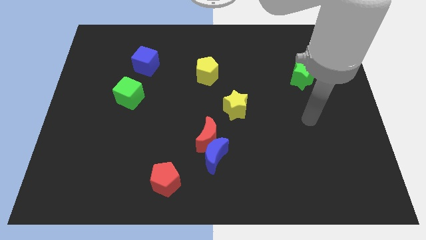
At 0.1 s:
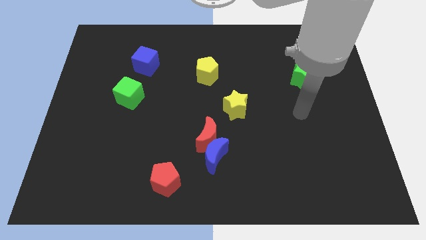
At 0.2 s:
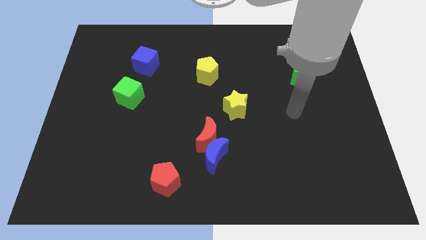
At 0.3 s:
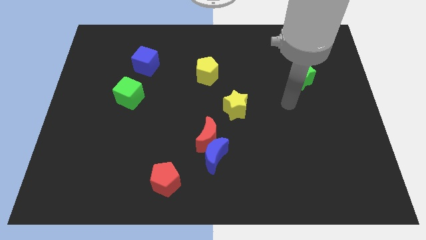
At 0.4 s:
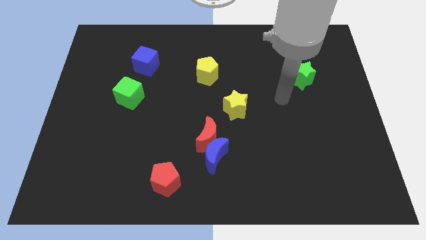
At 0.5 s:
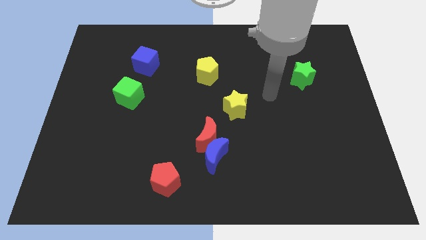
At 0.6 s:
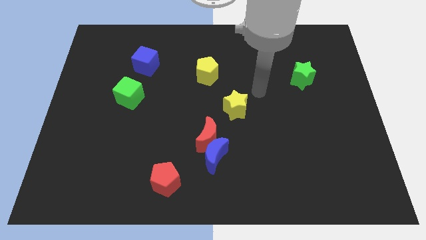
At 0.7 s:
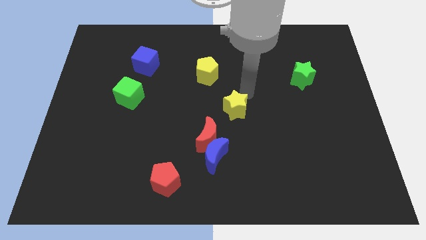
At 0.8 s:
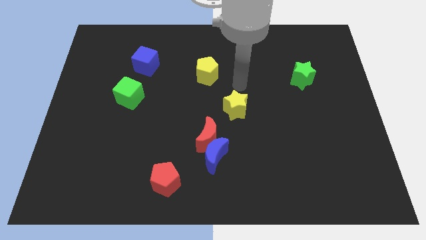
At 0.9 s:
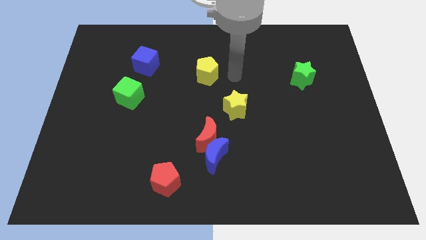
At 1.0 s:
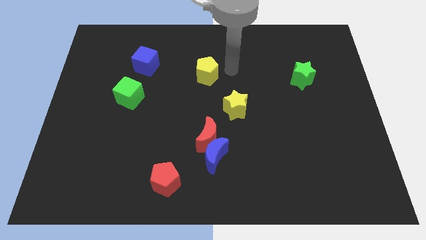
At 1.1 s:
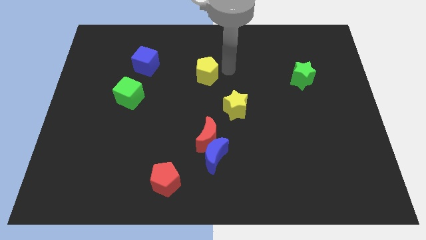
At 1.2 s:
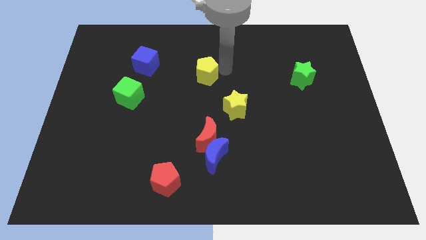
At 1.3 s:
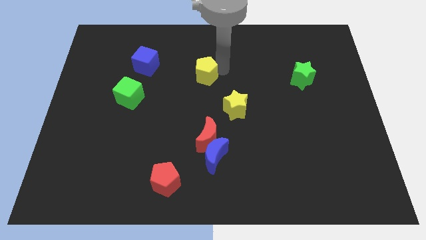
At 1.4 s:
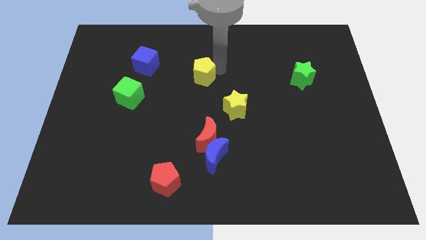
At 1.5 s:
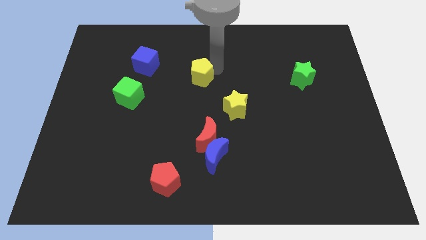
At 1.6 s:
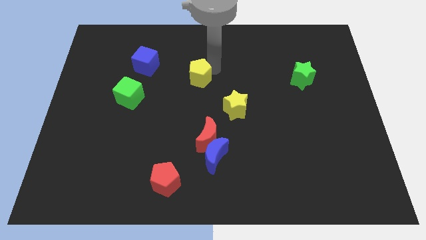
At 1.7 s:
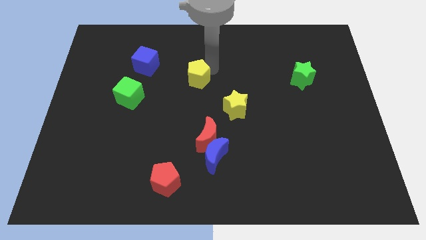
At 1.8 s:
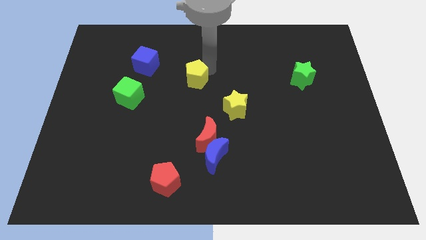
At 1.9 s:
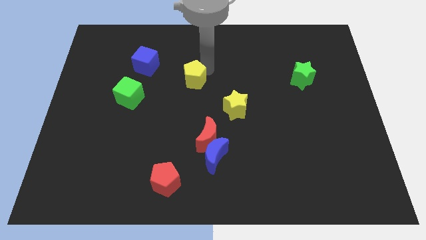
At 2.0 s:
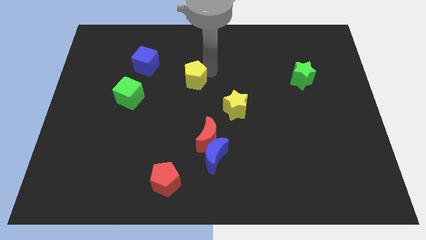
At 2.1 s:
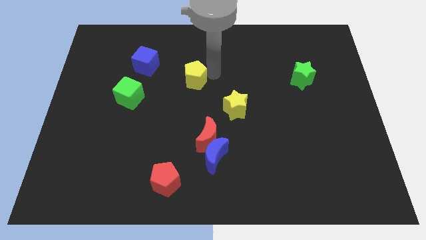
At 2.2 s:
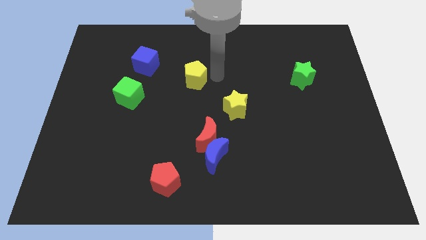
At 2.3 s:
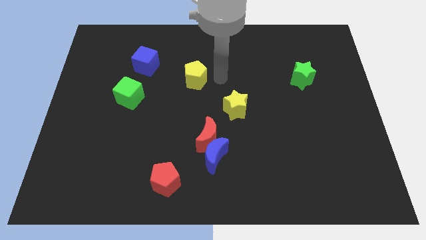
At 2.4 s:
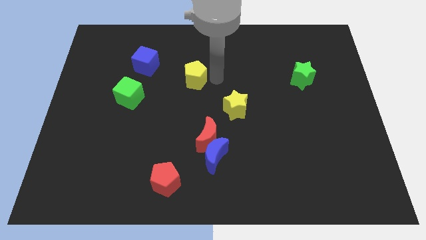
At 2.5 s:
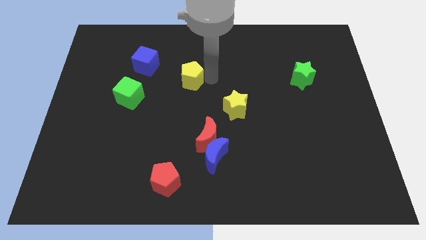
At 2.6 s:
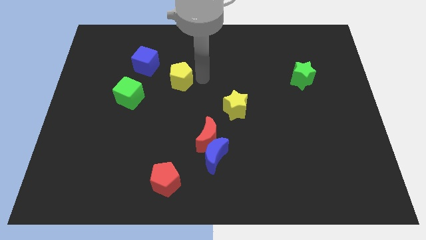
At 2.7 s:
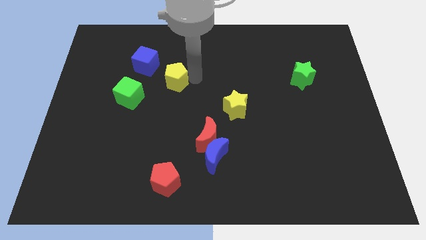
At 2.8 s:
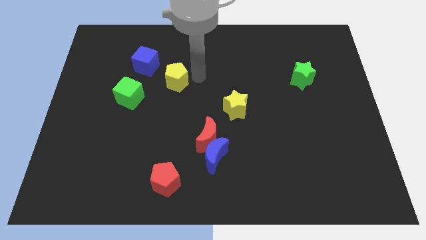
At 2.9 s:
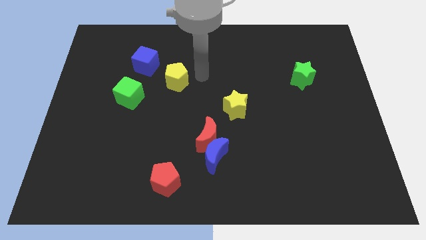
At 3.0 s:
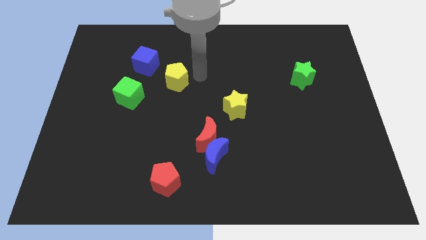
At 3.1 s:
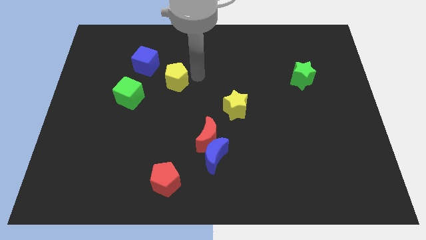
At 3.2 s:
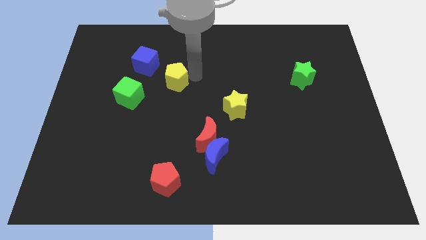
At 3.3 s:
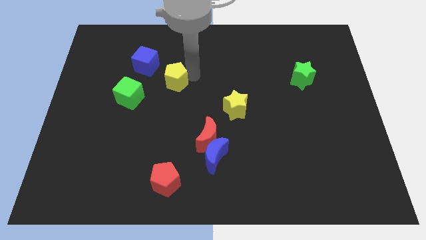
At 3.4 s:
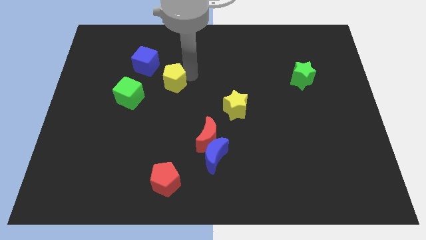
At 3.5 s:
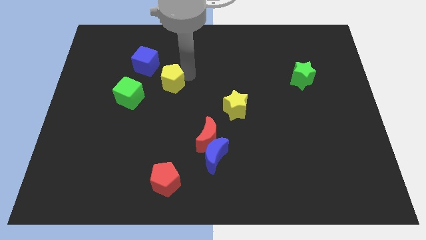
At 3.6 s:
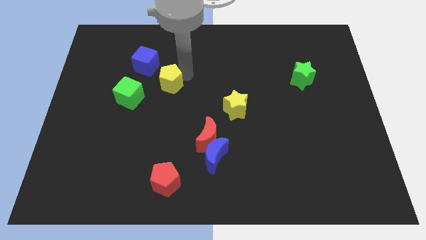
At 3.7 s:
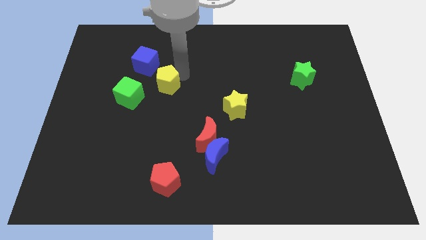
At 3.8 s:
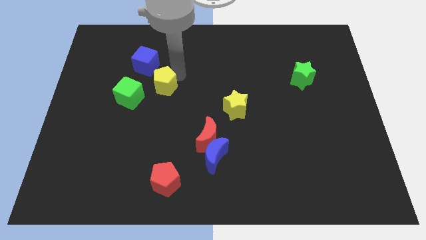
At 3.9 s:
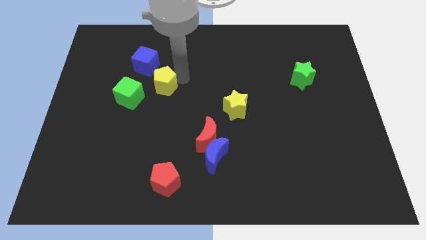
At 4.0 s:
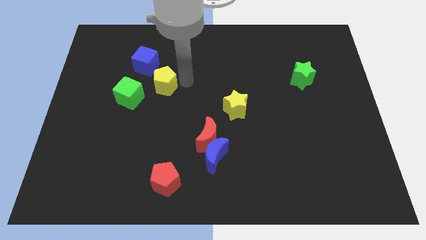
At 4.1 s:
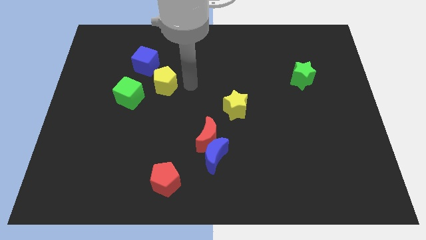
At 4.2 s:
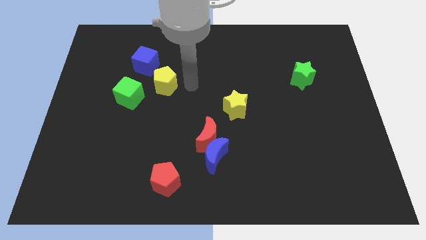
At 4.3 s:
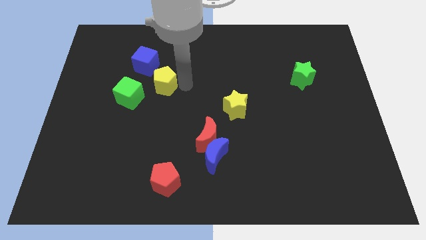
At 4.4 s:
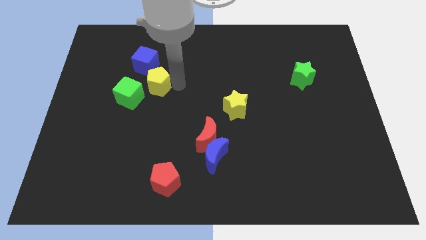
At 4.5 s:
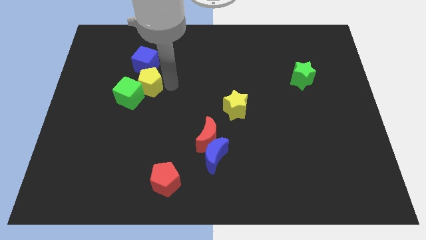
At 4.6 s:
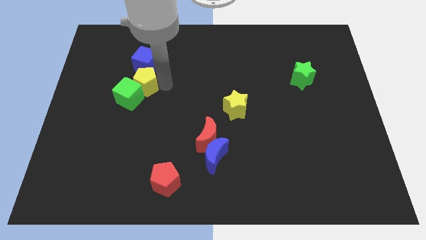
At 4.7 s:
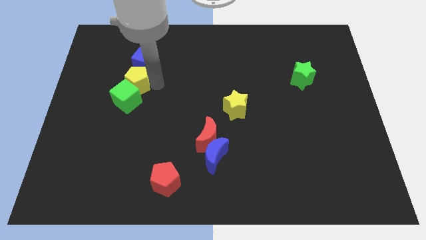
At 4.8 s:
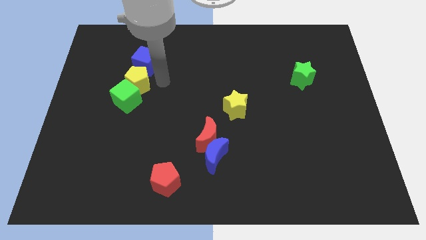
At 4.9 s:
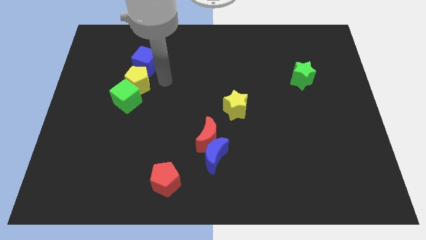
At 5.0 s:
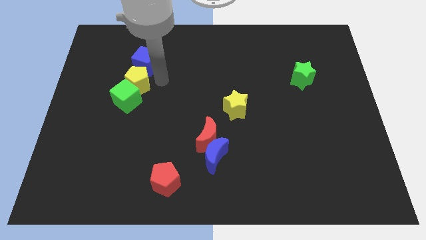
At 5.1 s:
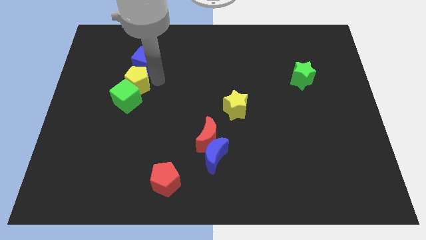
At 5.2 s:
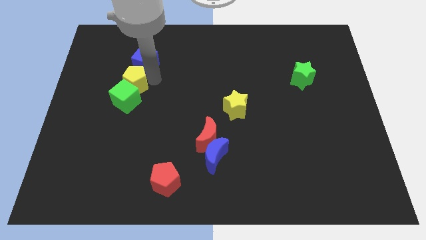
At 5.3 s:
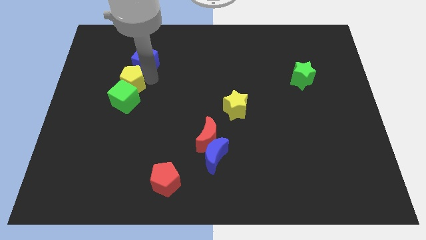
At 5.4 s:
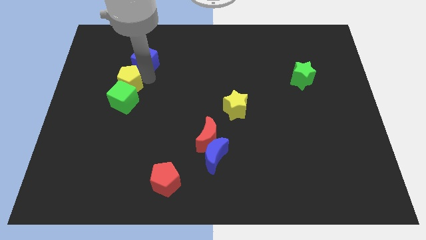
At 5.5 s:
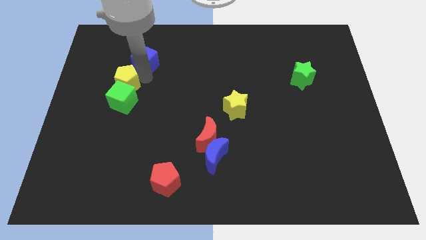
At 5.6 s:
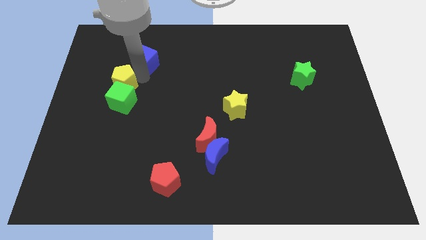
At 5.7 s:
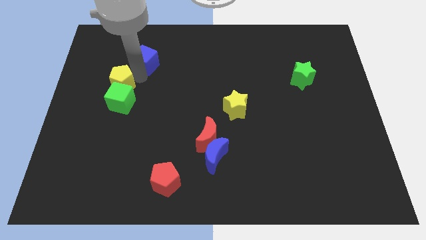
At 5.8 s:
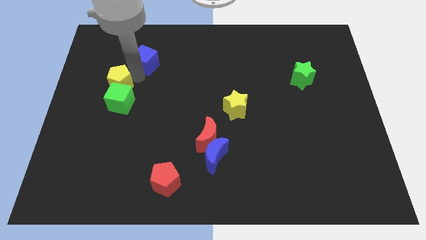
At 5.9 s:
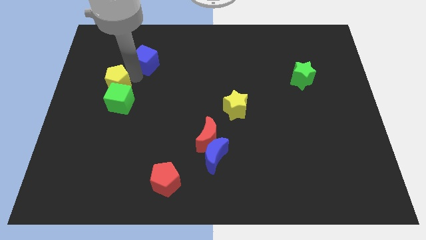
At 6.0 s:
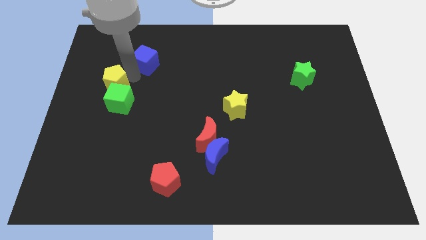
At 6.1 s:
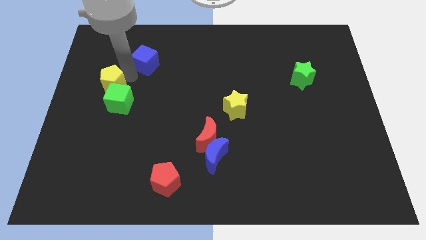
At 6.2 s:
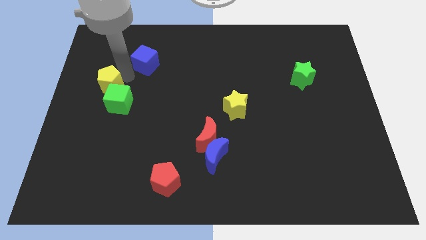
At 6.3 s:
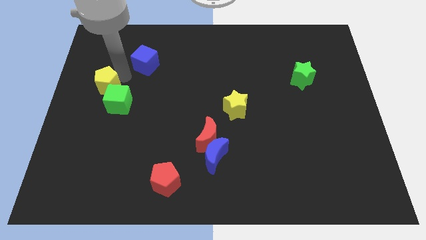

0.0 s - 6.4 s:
push the yellow pentagon to the left side
